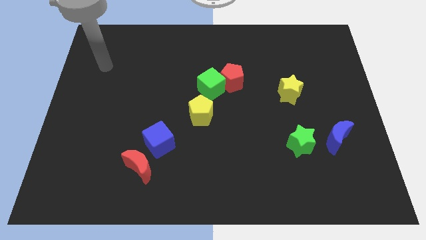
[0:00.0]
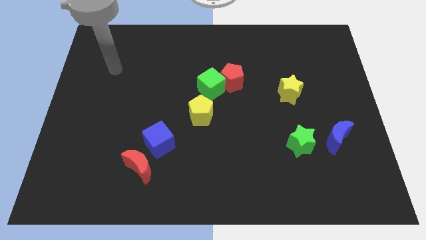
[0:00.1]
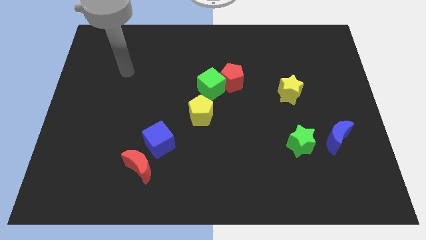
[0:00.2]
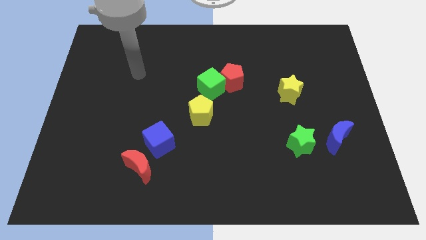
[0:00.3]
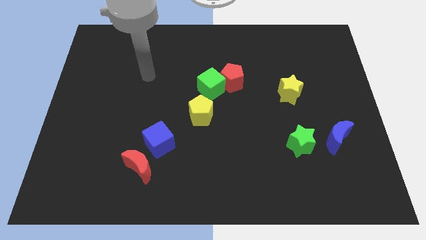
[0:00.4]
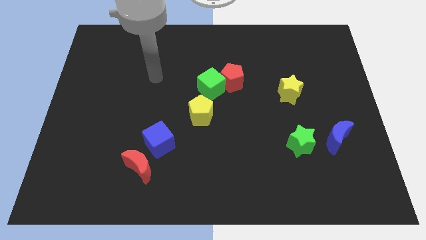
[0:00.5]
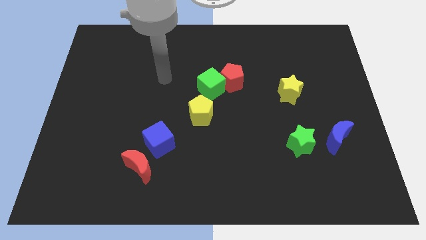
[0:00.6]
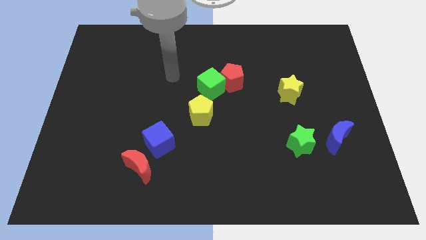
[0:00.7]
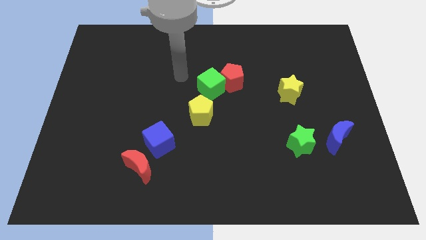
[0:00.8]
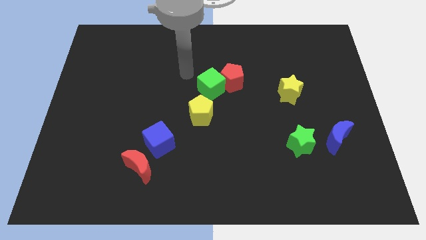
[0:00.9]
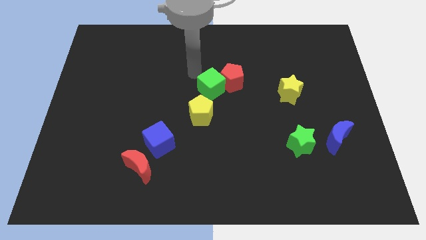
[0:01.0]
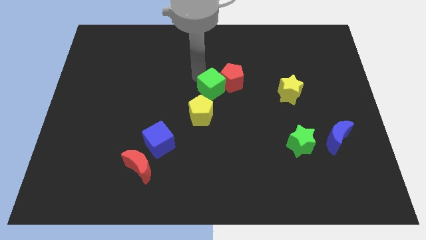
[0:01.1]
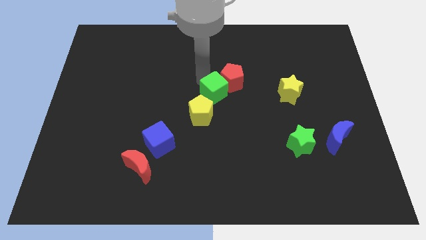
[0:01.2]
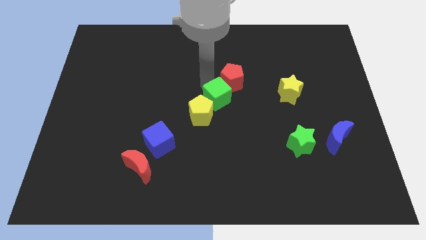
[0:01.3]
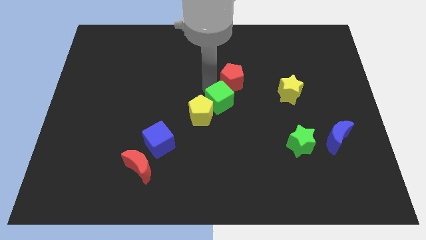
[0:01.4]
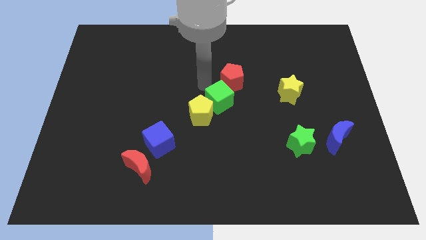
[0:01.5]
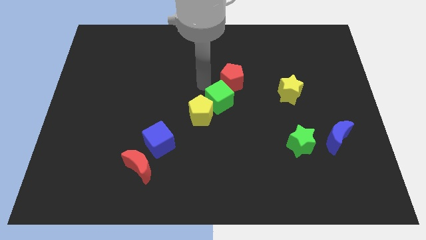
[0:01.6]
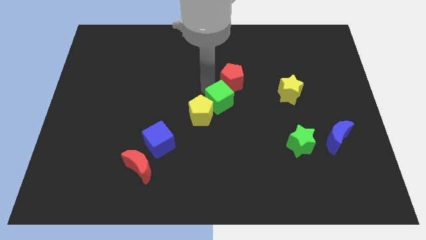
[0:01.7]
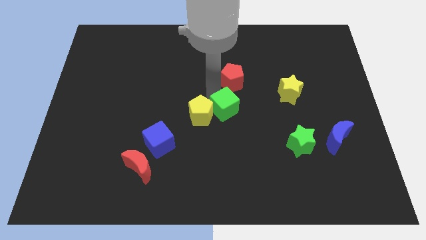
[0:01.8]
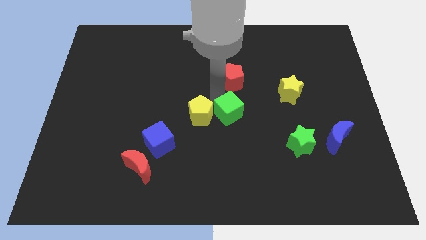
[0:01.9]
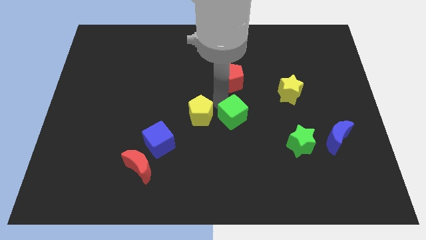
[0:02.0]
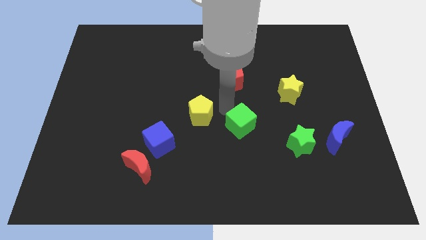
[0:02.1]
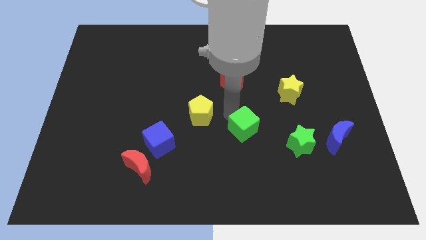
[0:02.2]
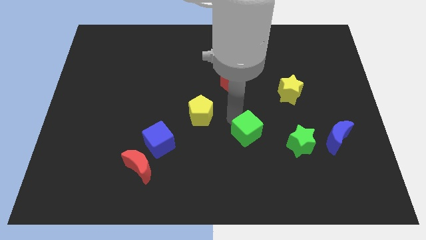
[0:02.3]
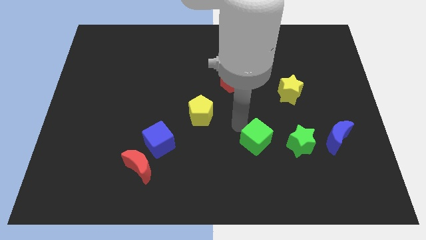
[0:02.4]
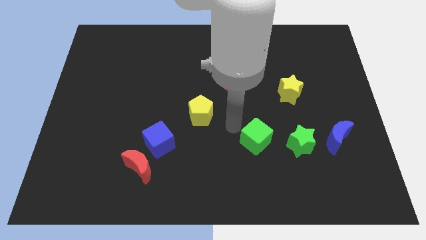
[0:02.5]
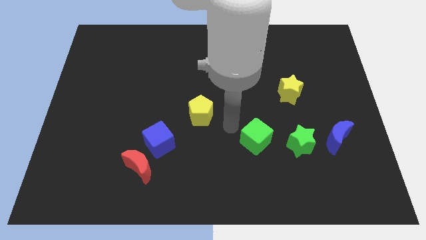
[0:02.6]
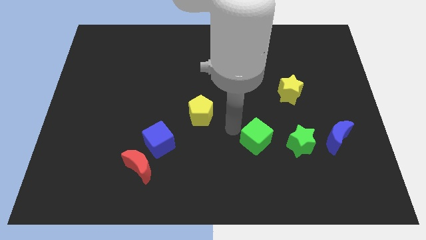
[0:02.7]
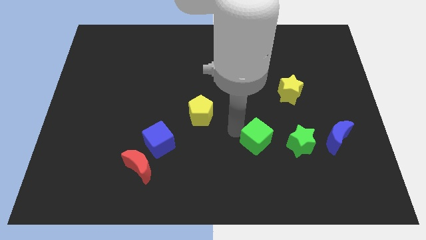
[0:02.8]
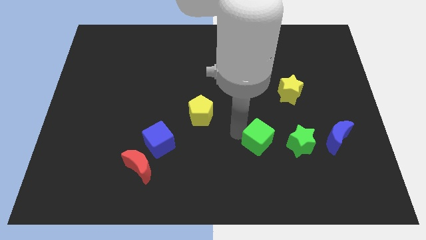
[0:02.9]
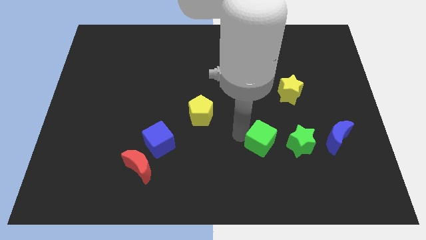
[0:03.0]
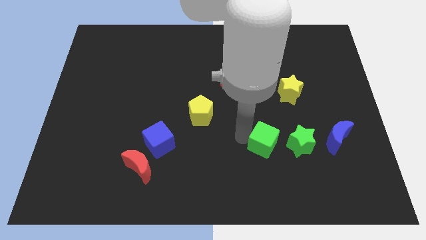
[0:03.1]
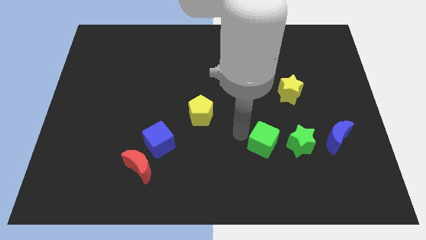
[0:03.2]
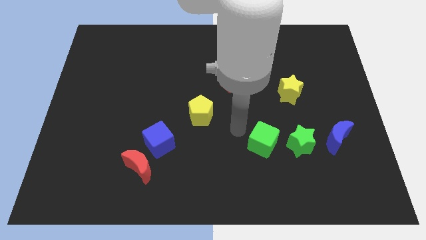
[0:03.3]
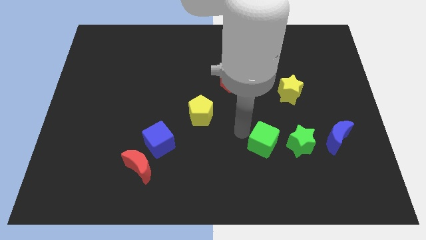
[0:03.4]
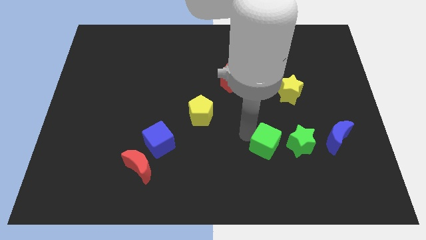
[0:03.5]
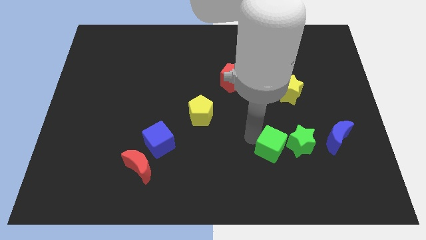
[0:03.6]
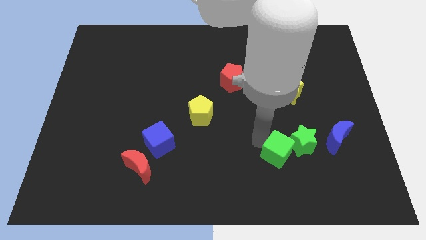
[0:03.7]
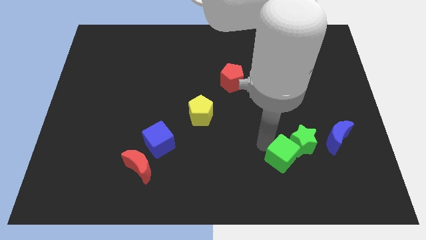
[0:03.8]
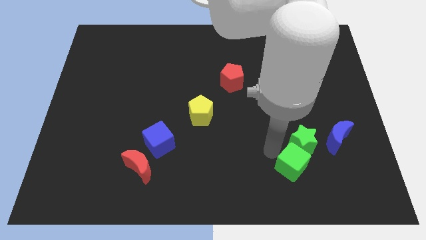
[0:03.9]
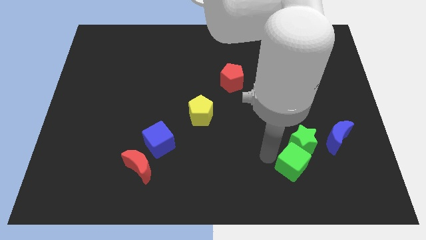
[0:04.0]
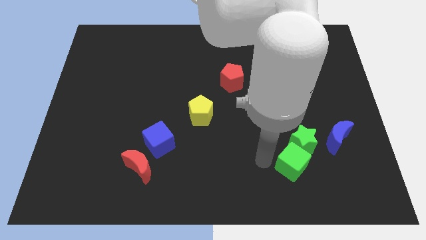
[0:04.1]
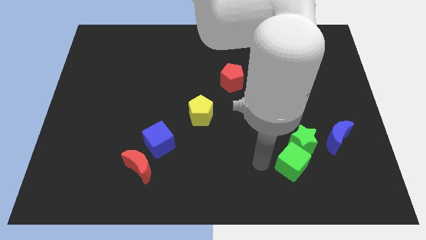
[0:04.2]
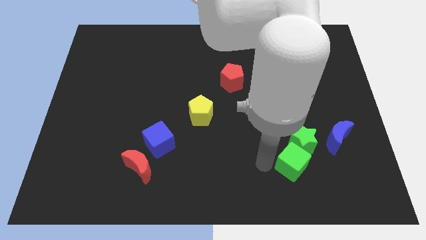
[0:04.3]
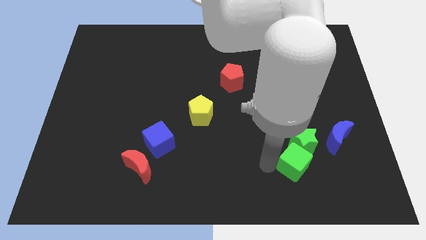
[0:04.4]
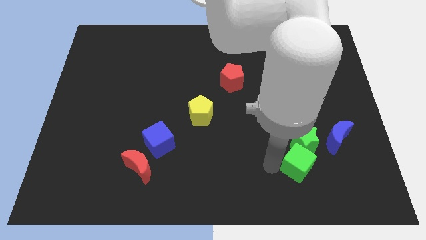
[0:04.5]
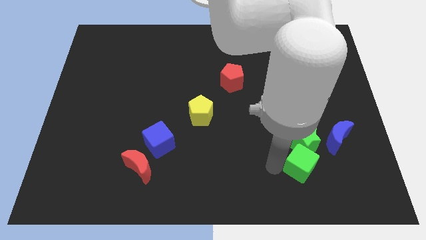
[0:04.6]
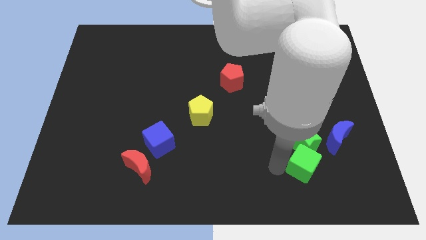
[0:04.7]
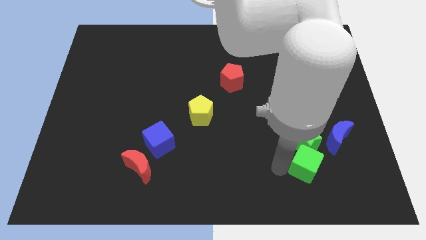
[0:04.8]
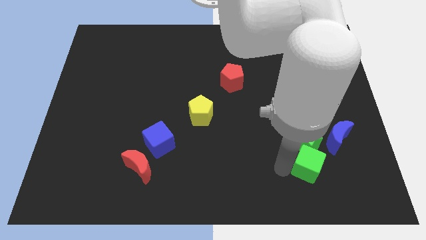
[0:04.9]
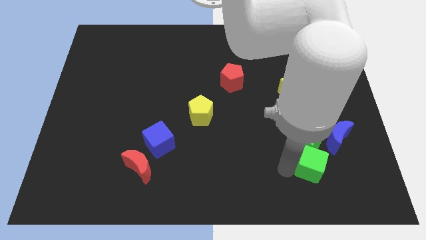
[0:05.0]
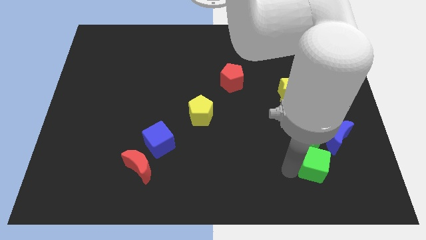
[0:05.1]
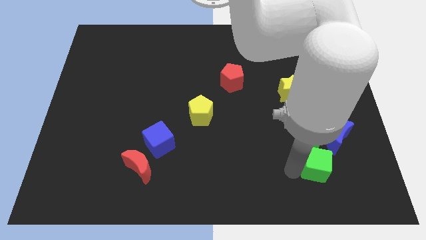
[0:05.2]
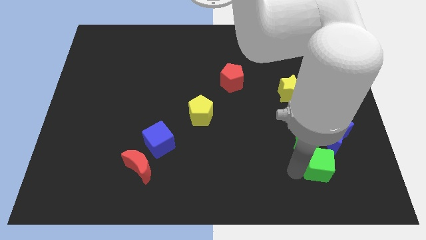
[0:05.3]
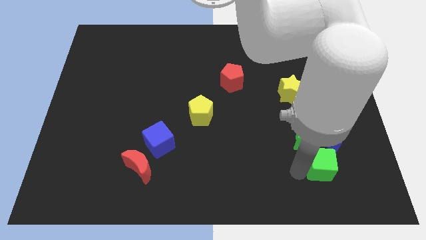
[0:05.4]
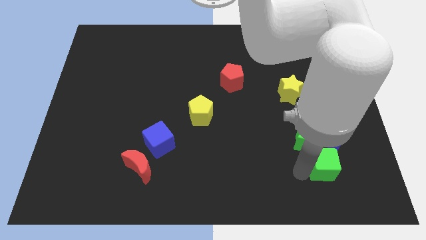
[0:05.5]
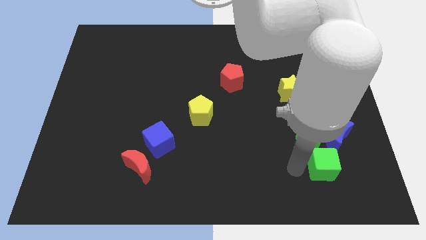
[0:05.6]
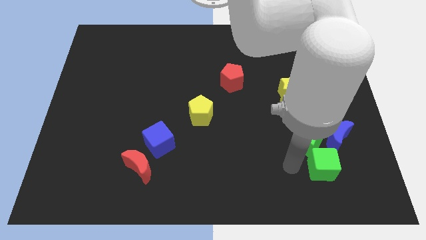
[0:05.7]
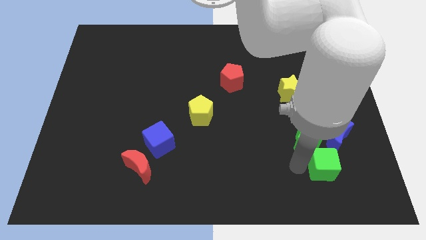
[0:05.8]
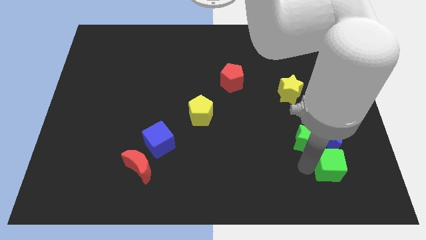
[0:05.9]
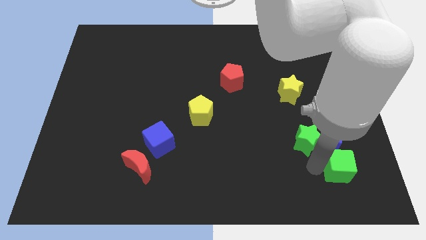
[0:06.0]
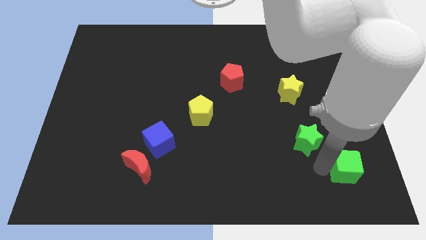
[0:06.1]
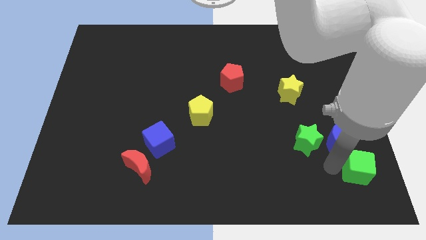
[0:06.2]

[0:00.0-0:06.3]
move the green cube to the lower right corner
